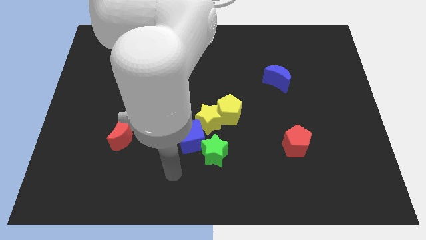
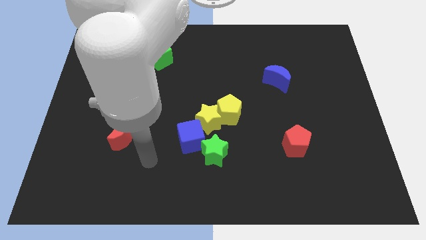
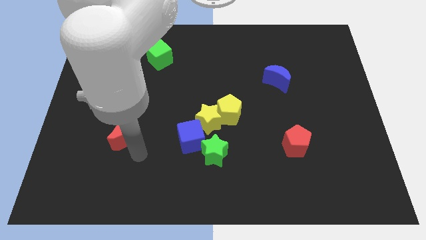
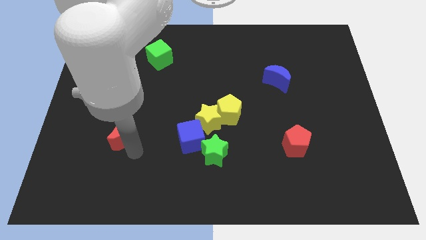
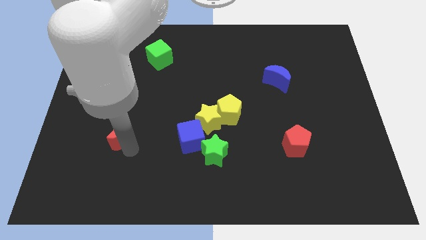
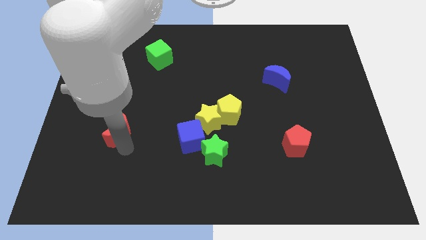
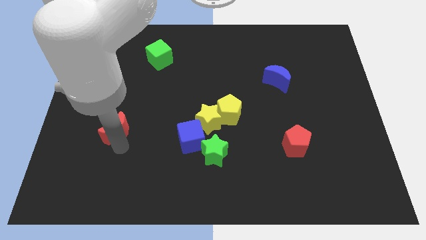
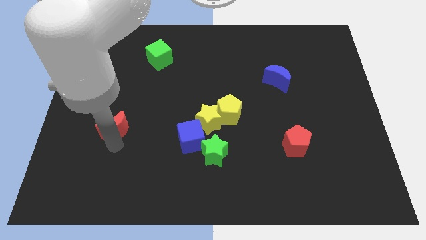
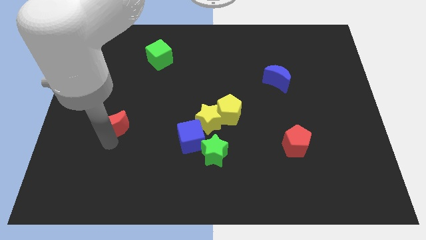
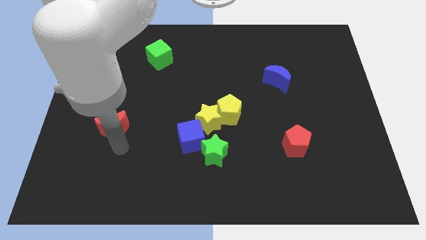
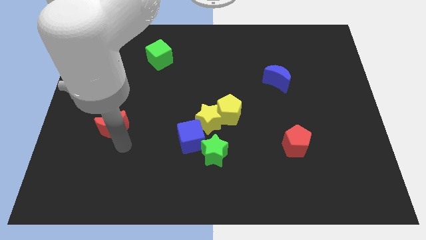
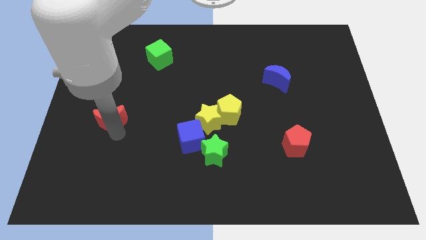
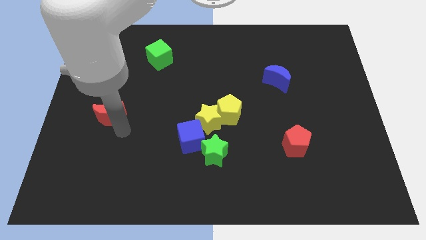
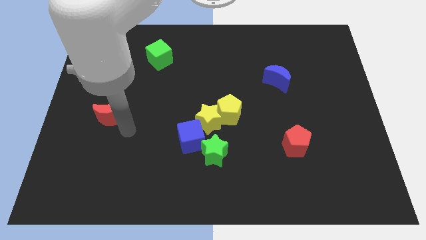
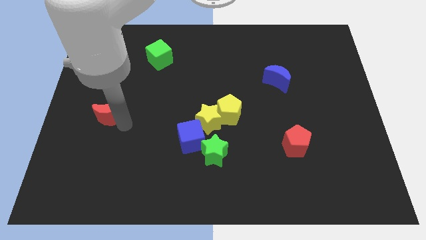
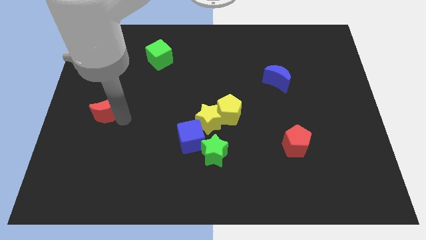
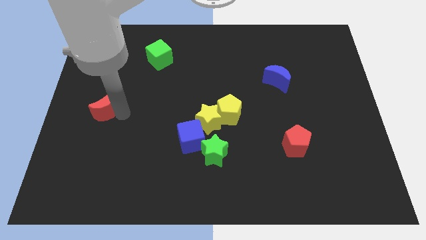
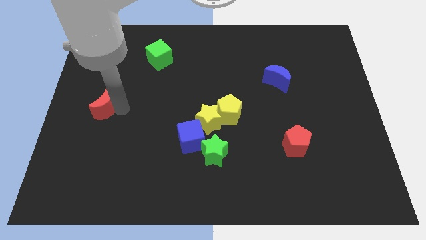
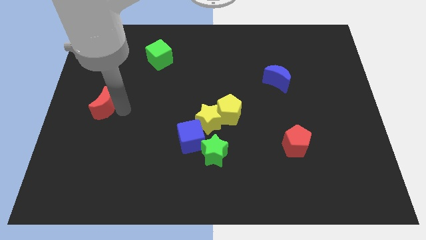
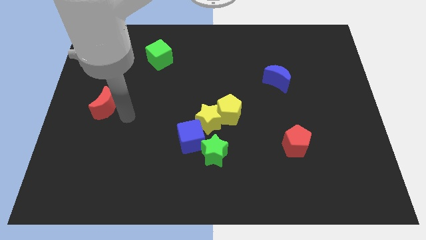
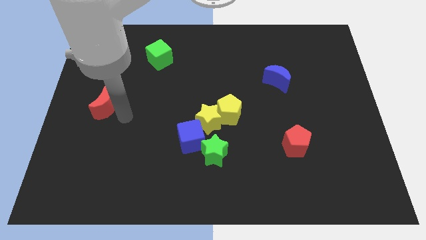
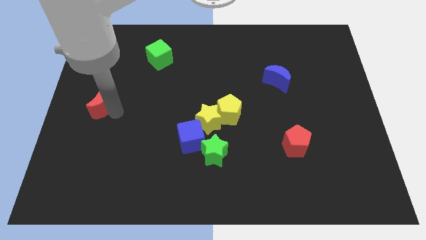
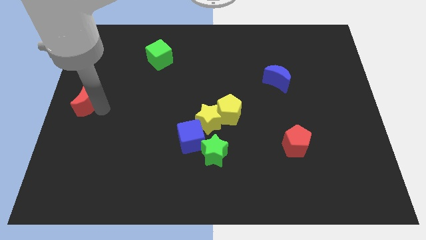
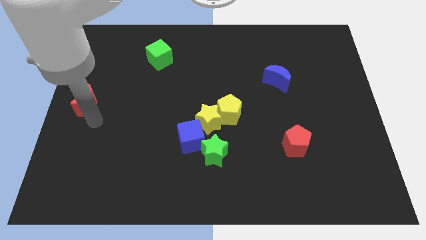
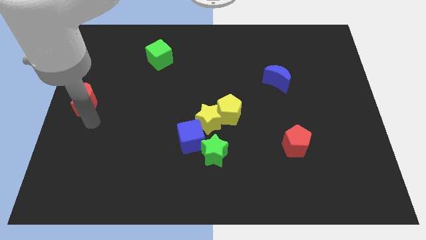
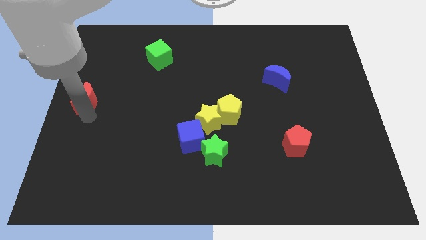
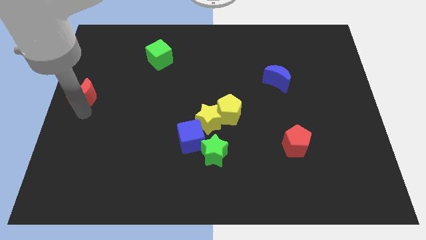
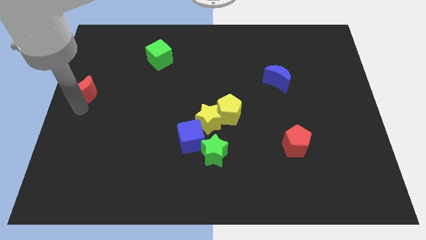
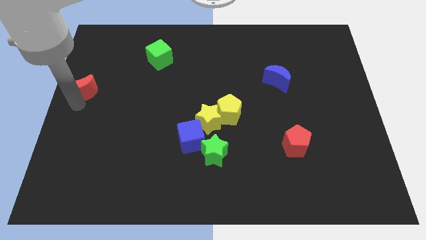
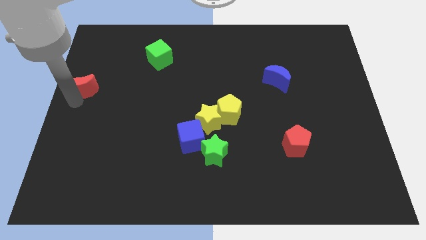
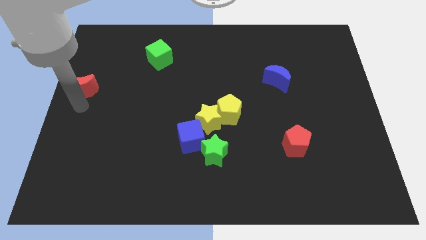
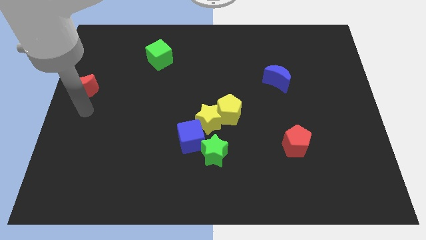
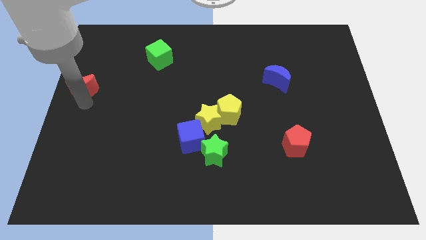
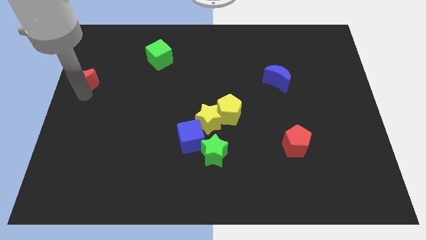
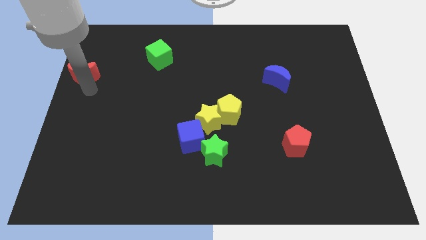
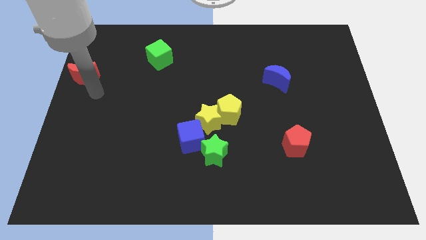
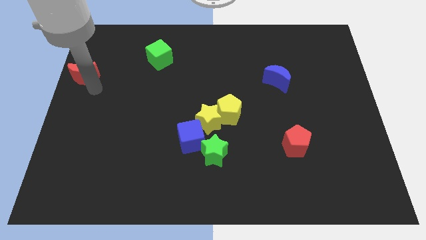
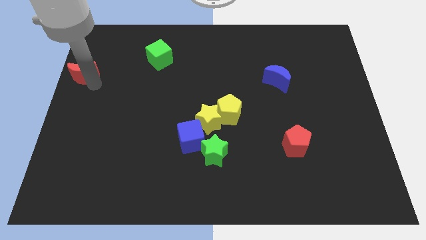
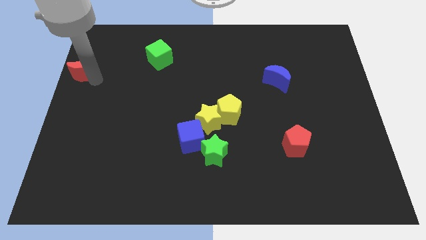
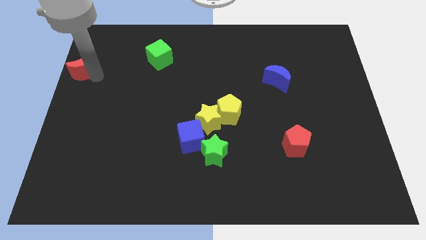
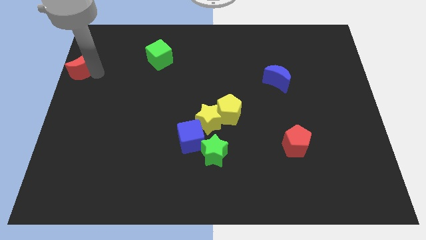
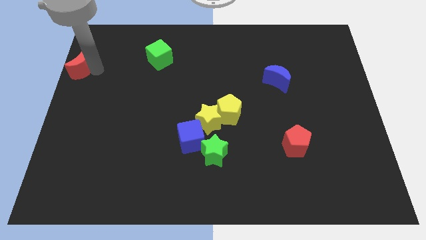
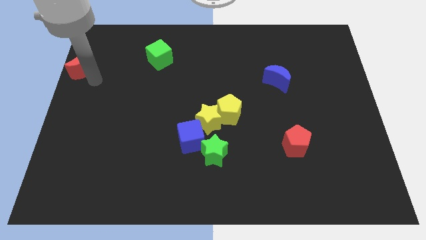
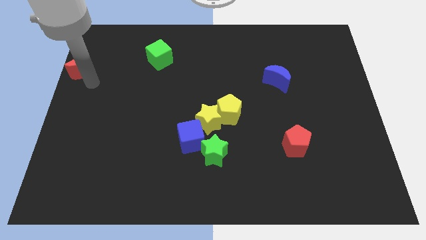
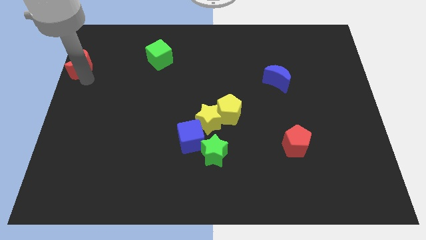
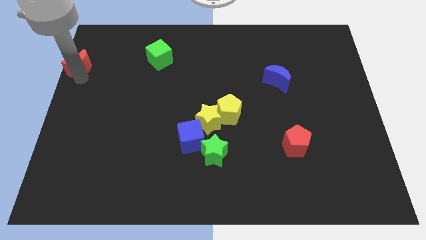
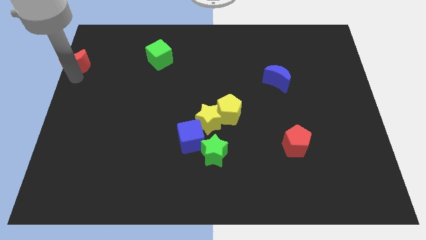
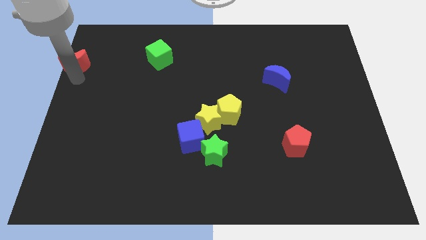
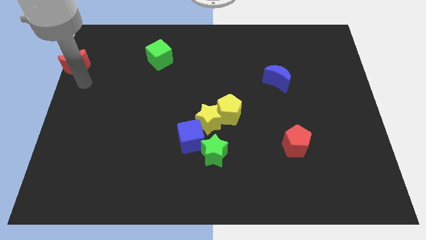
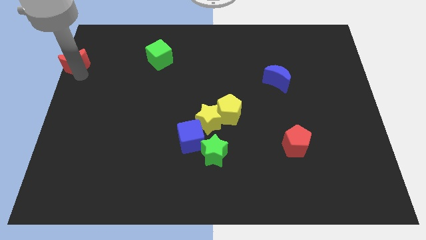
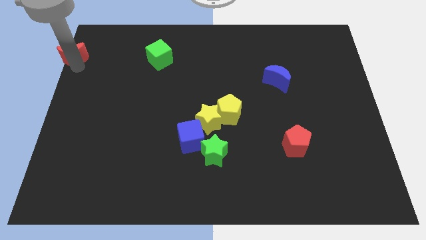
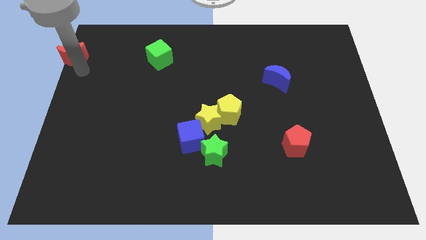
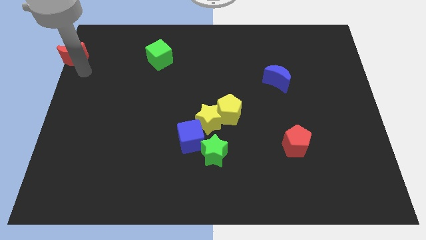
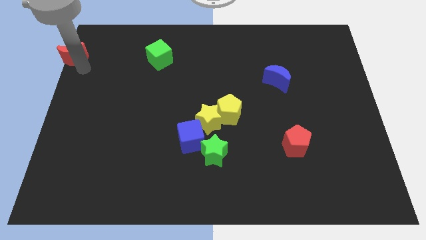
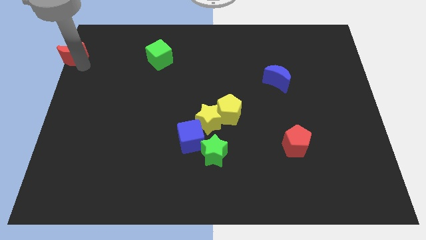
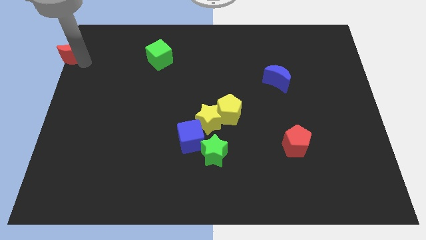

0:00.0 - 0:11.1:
slide the red moon to the top left of the board

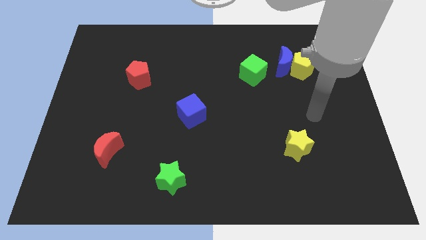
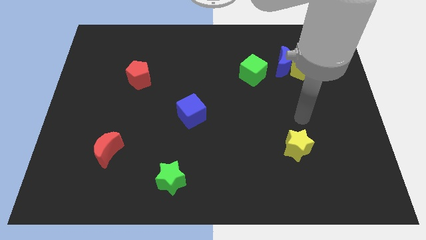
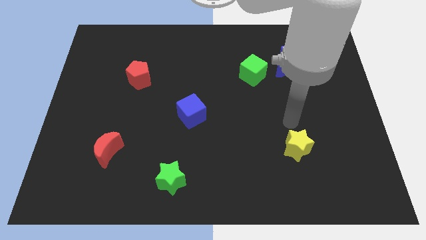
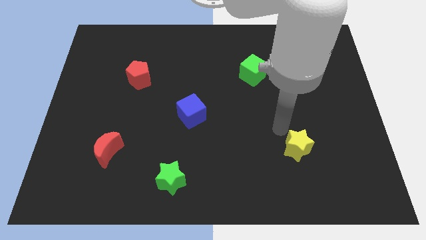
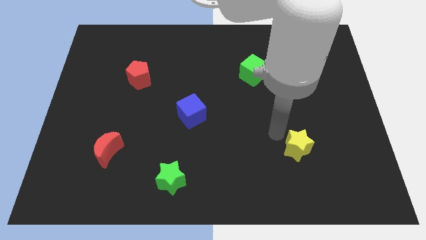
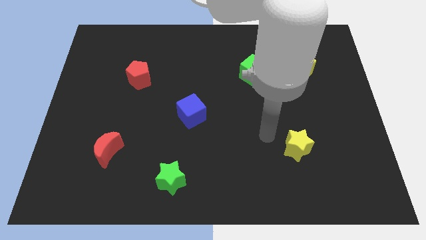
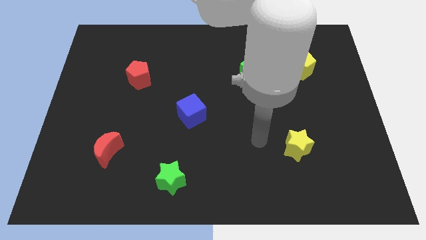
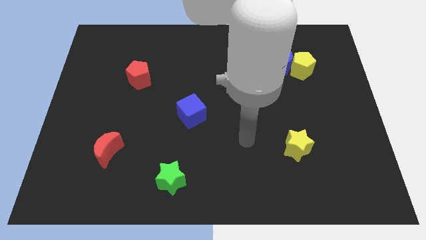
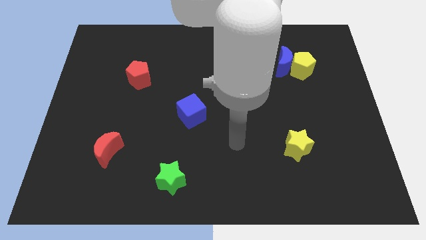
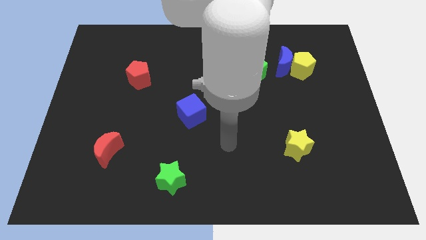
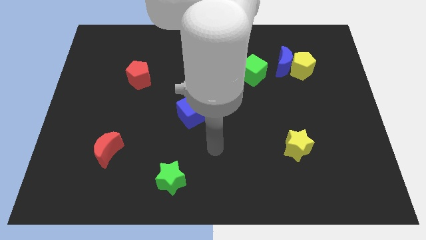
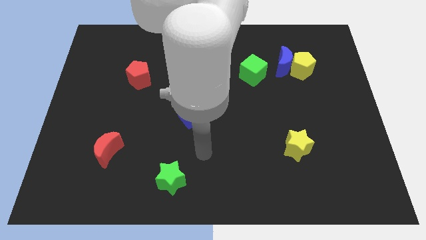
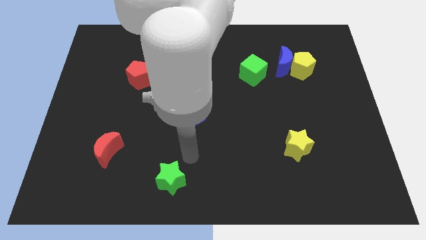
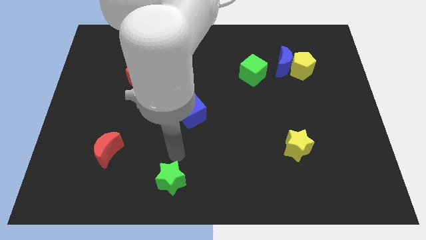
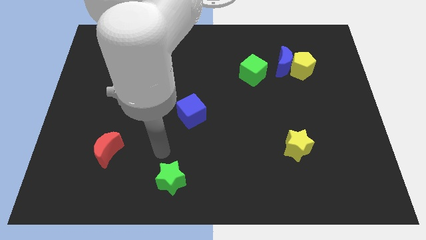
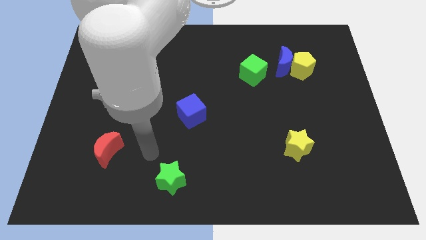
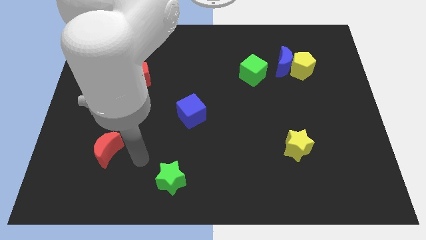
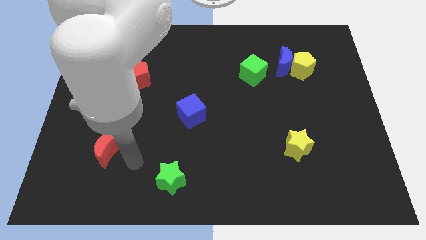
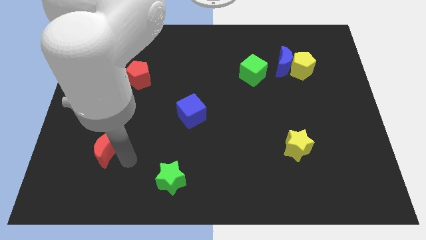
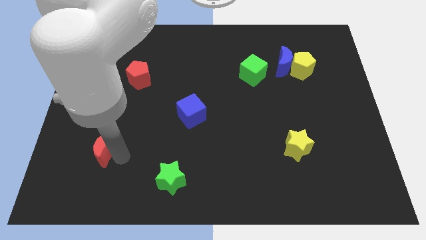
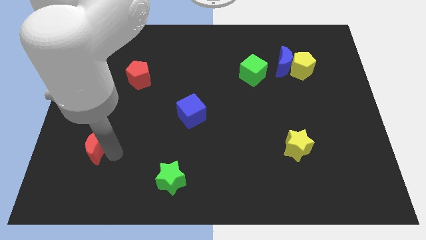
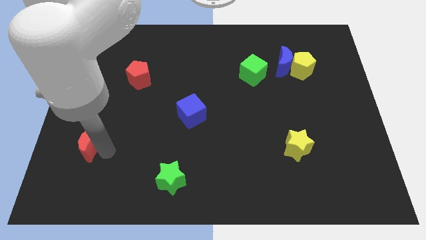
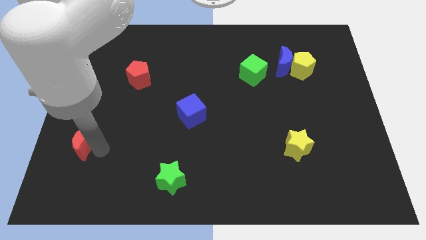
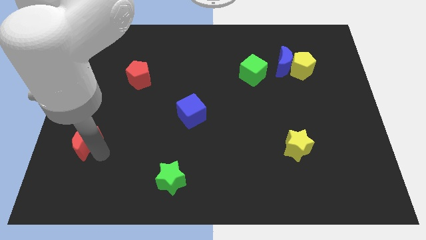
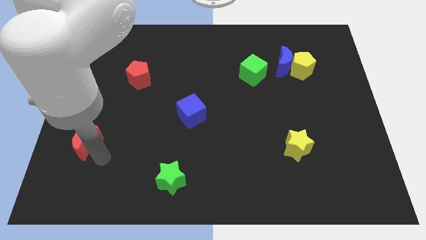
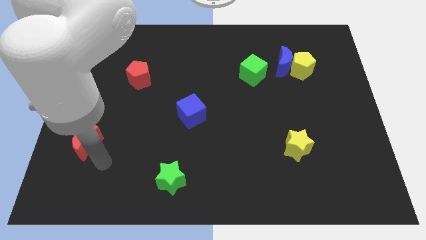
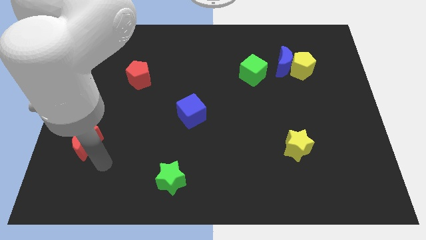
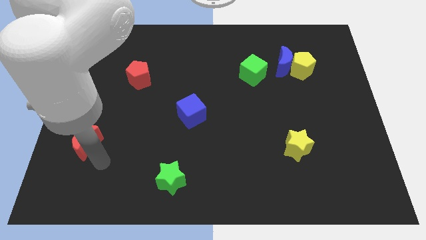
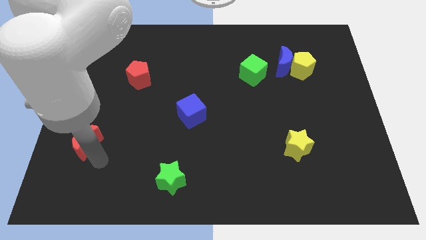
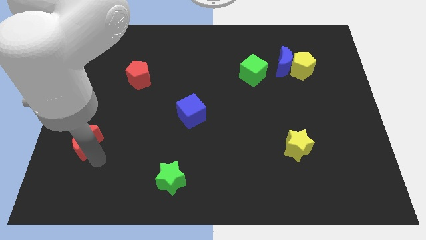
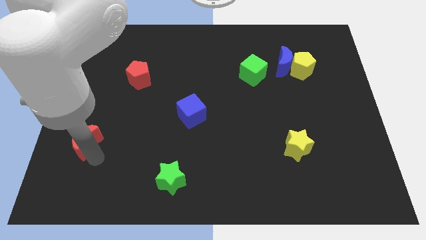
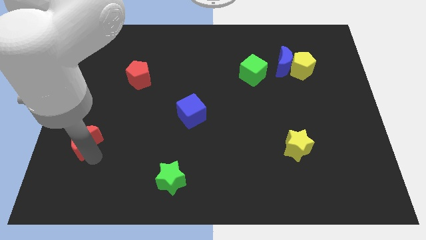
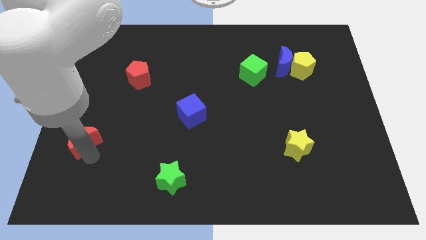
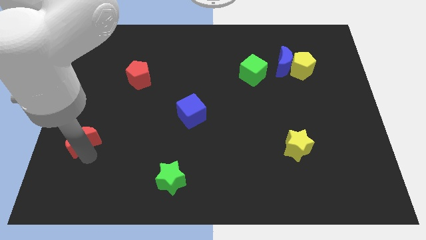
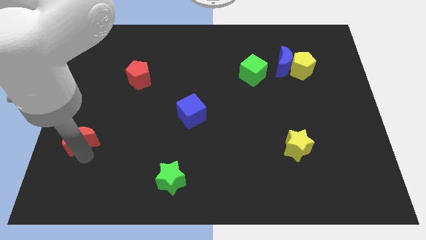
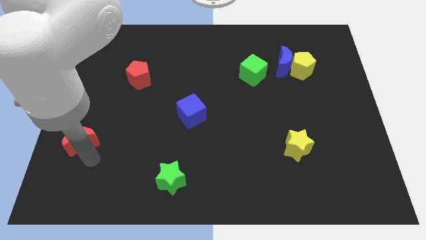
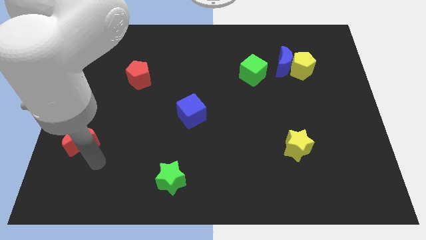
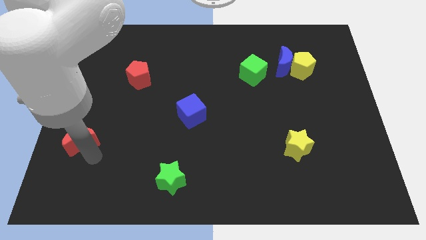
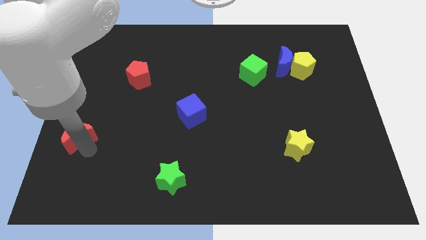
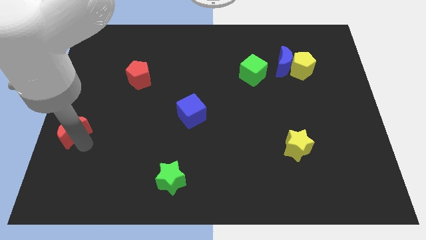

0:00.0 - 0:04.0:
slide the red moon to the left side
